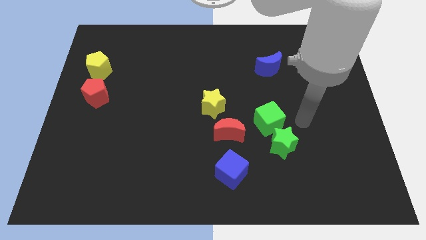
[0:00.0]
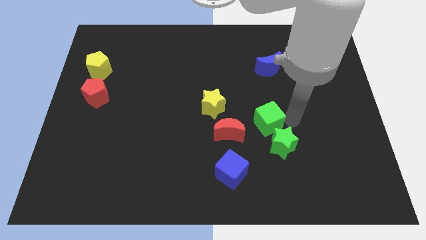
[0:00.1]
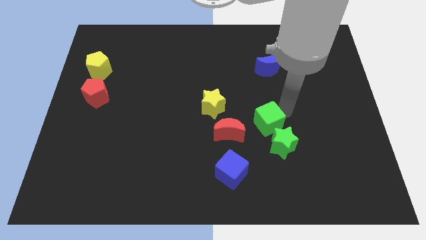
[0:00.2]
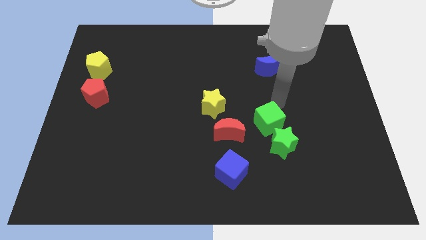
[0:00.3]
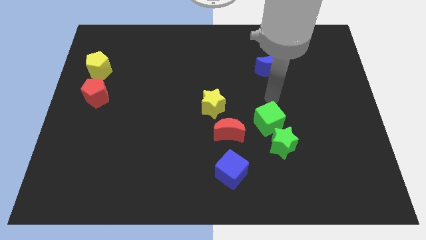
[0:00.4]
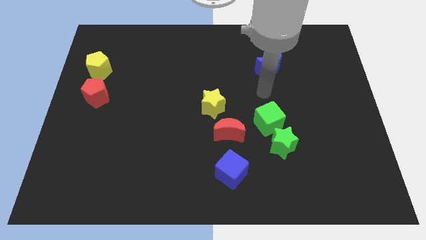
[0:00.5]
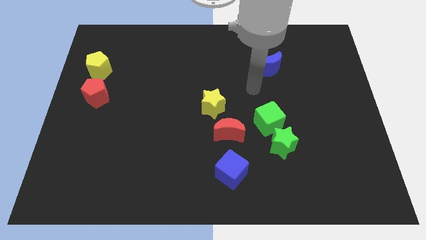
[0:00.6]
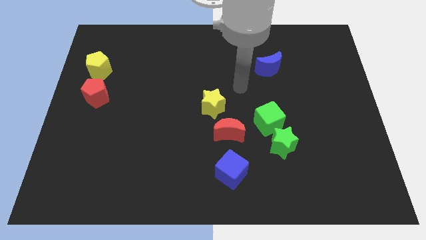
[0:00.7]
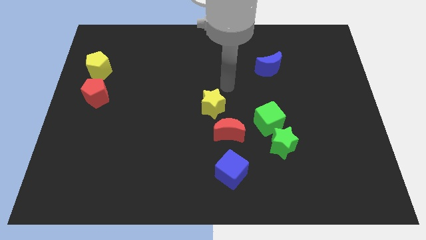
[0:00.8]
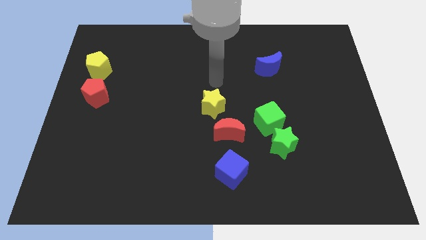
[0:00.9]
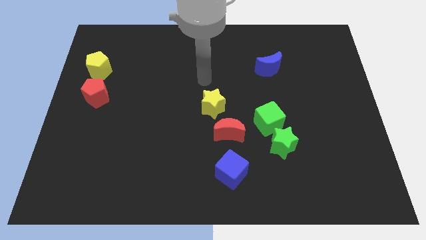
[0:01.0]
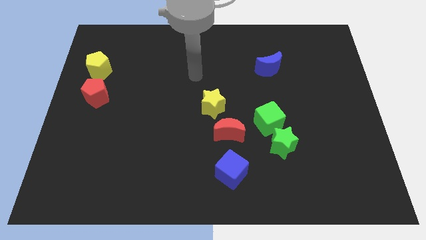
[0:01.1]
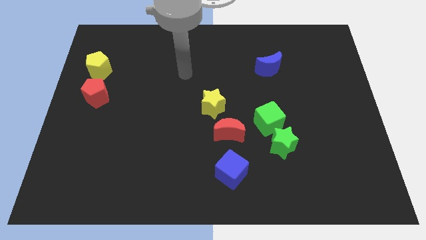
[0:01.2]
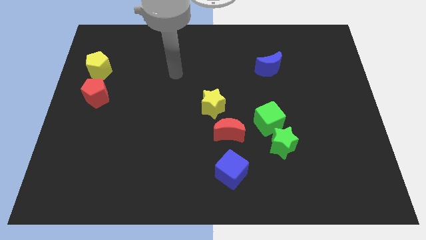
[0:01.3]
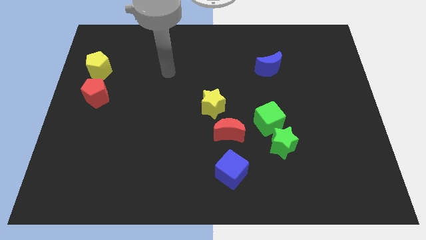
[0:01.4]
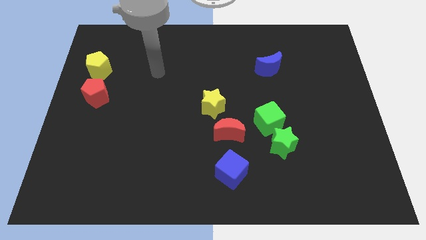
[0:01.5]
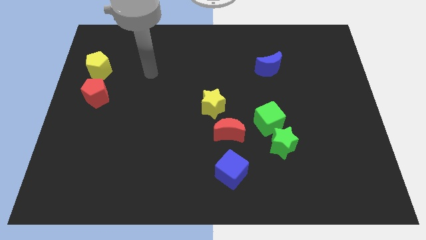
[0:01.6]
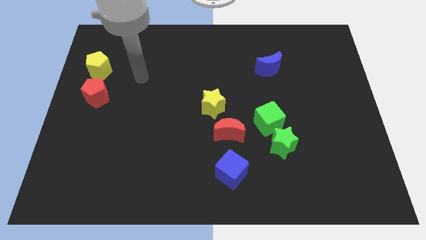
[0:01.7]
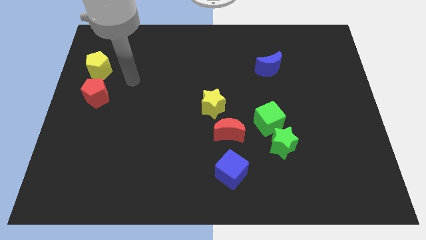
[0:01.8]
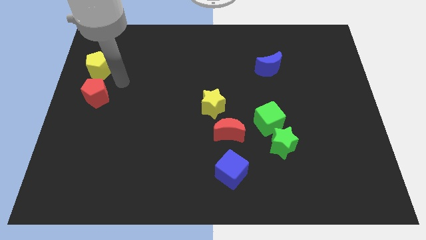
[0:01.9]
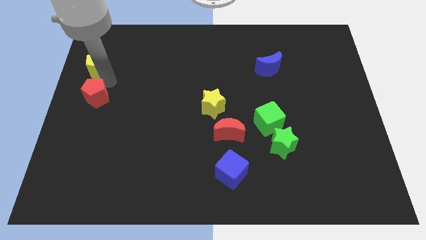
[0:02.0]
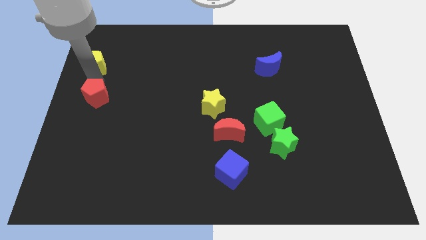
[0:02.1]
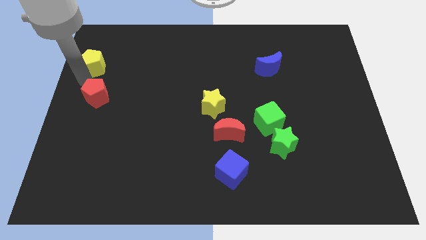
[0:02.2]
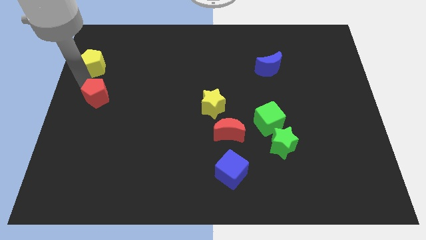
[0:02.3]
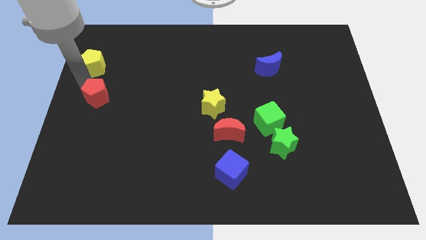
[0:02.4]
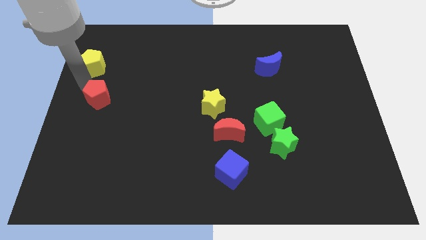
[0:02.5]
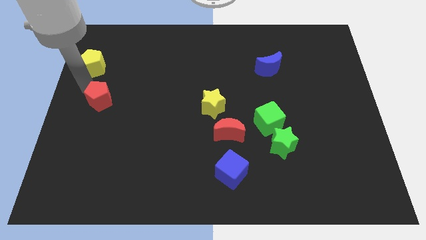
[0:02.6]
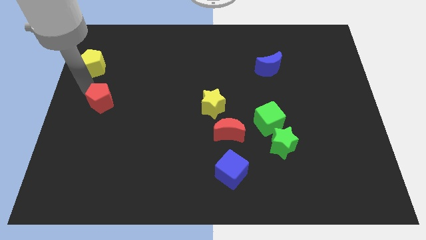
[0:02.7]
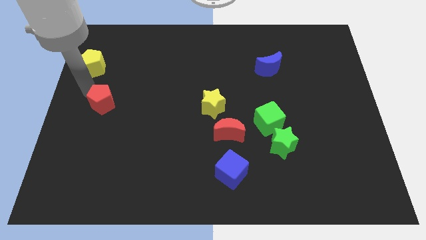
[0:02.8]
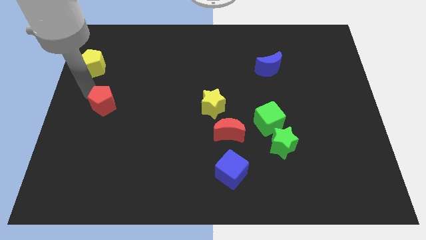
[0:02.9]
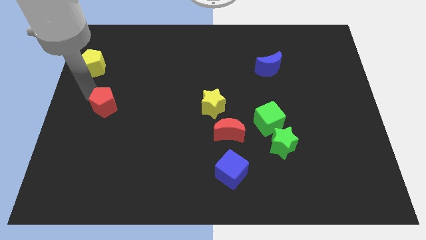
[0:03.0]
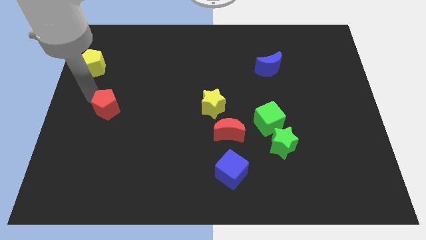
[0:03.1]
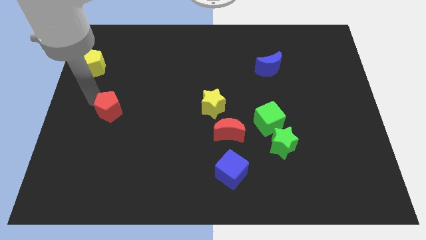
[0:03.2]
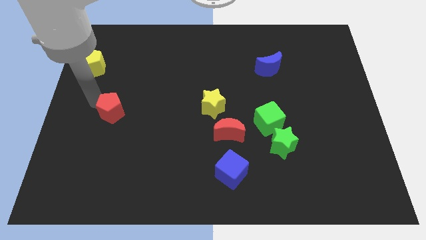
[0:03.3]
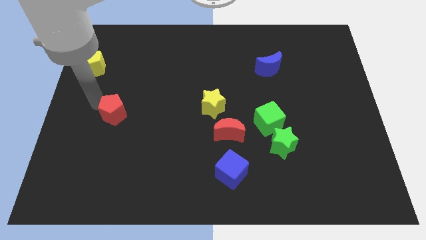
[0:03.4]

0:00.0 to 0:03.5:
move the red pentagon a bit diagonally down and right

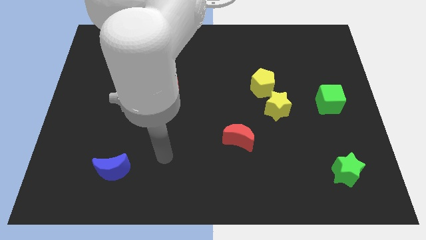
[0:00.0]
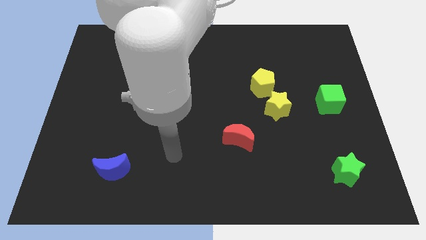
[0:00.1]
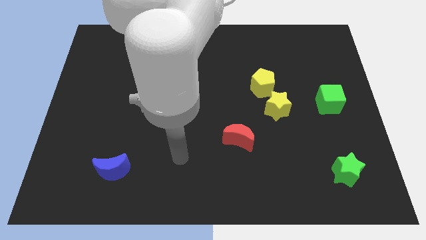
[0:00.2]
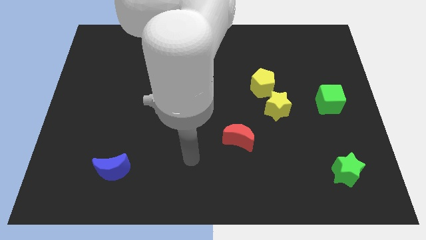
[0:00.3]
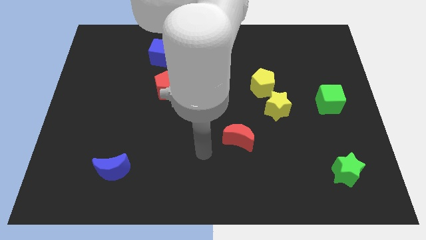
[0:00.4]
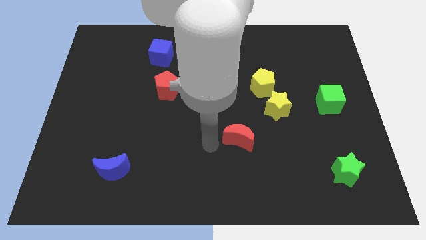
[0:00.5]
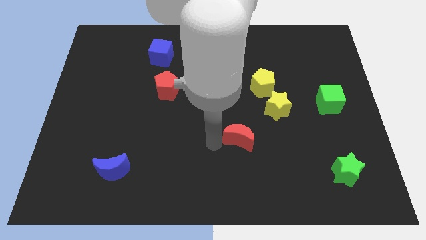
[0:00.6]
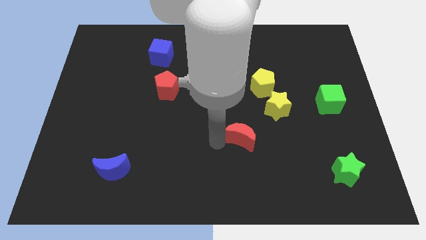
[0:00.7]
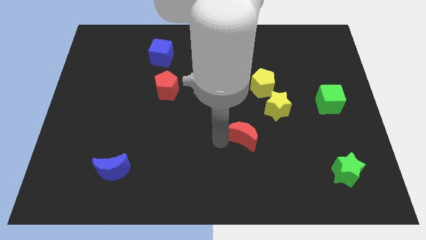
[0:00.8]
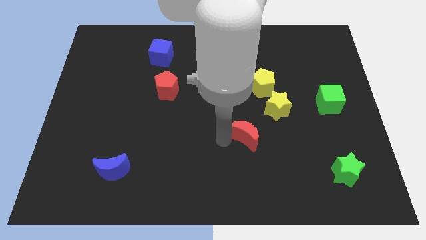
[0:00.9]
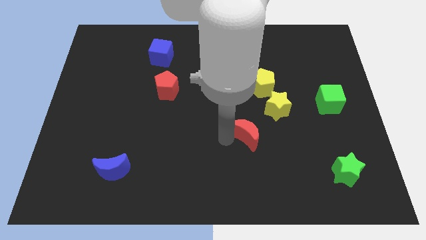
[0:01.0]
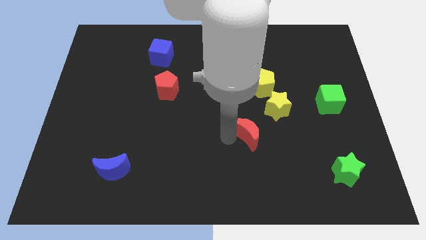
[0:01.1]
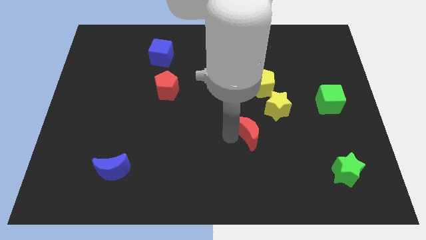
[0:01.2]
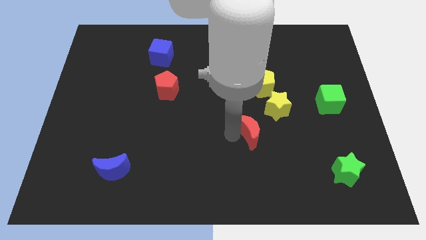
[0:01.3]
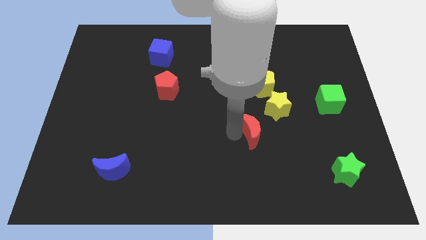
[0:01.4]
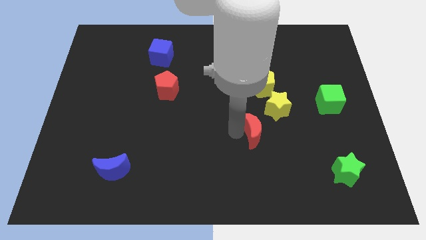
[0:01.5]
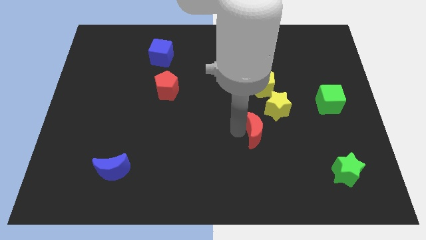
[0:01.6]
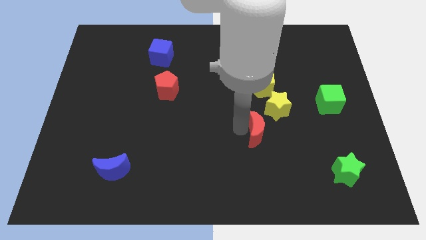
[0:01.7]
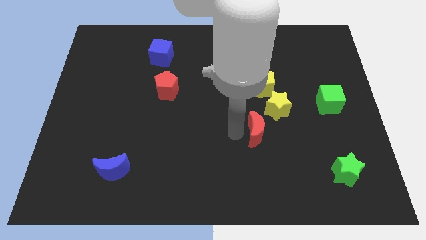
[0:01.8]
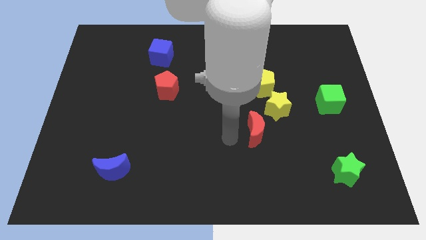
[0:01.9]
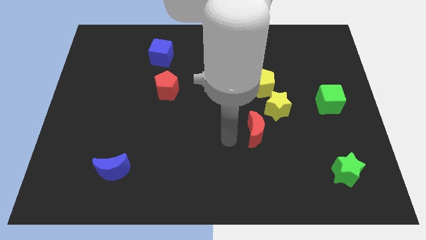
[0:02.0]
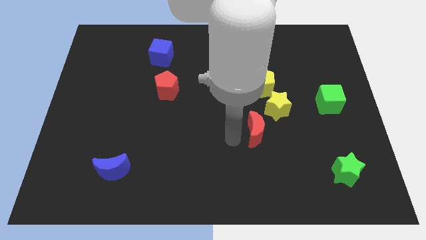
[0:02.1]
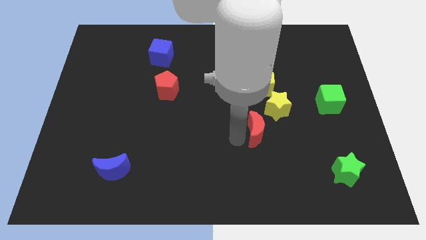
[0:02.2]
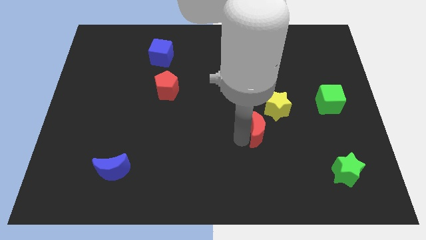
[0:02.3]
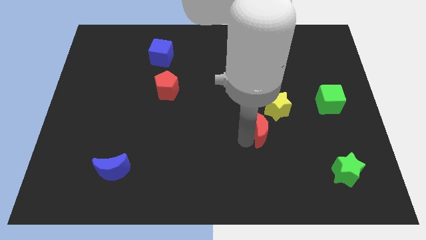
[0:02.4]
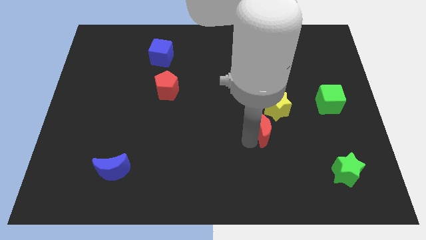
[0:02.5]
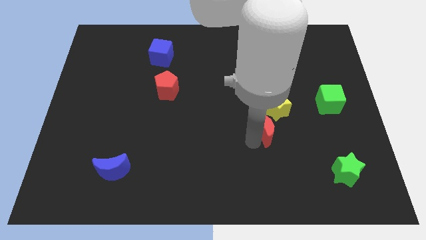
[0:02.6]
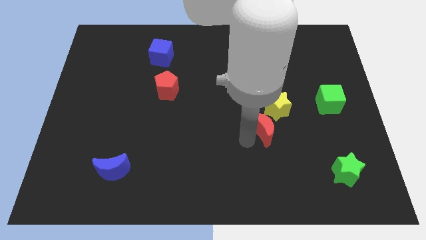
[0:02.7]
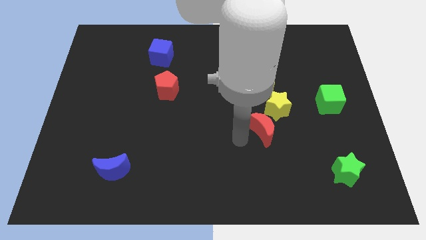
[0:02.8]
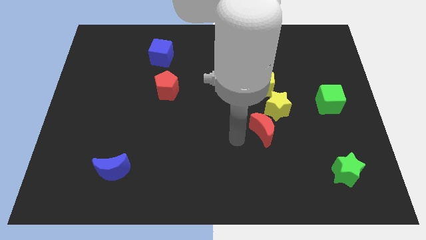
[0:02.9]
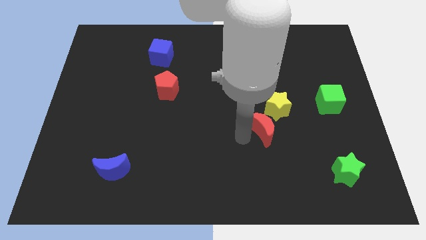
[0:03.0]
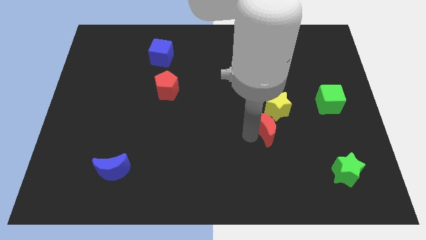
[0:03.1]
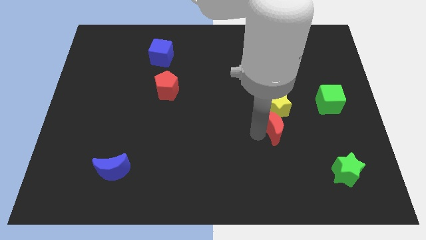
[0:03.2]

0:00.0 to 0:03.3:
push the red moon a little up and then right

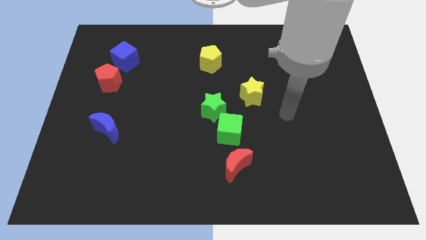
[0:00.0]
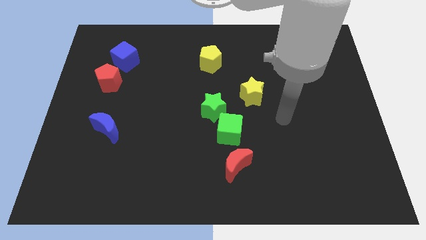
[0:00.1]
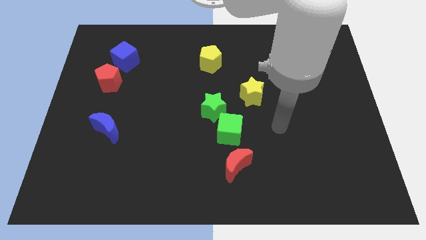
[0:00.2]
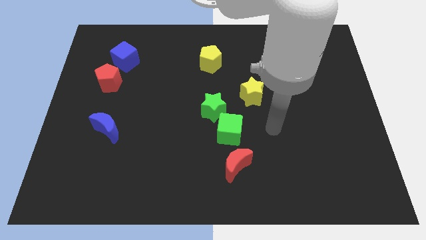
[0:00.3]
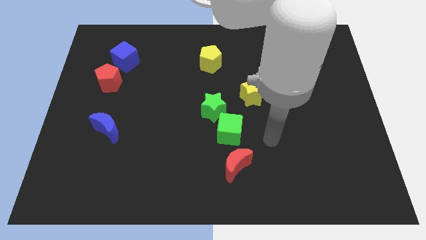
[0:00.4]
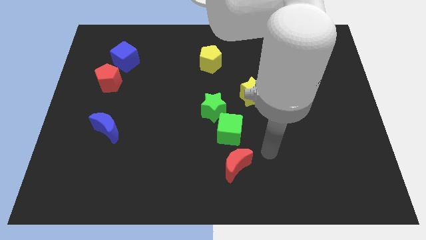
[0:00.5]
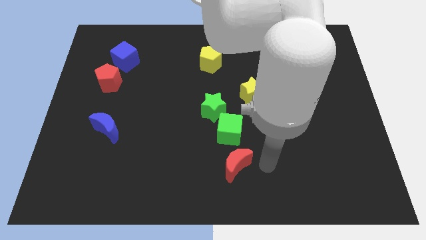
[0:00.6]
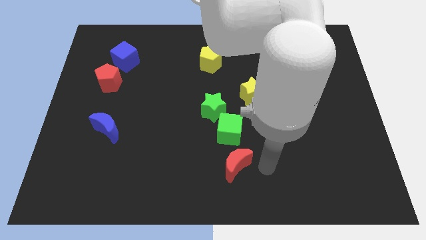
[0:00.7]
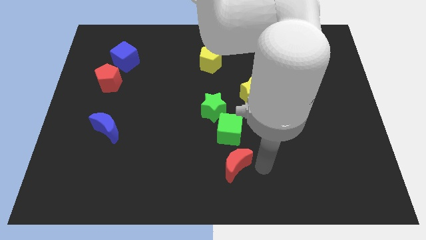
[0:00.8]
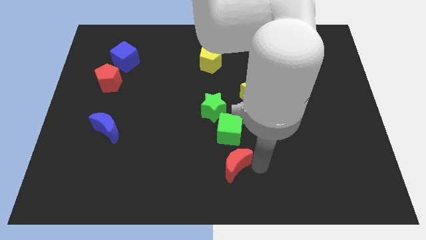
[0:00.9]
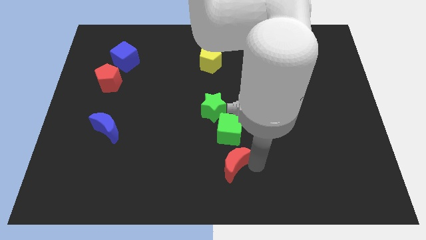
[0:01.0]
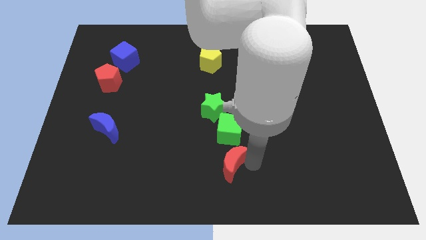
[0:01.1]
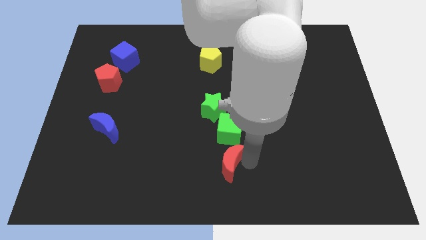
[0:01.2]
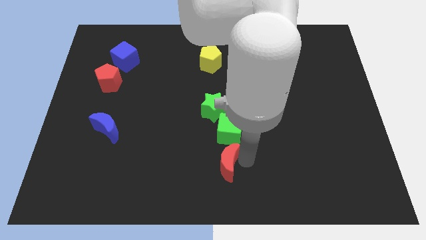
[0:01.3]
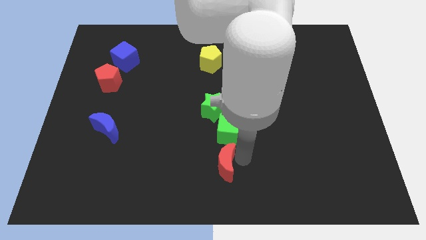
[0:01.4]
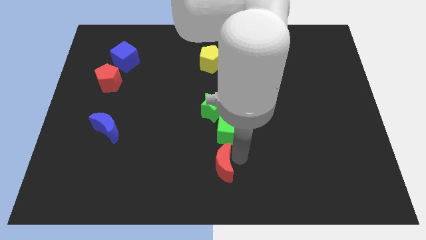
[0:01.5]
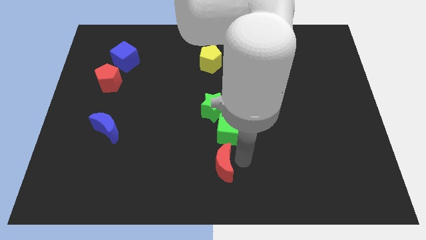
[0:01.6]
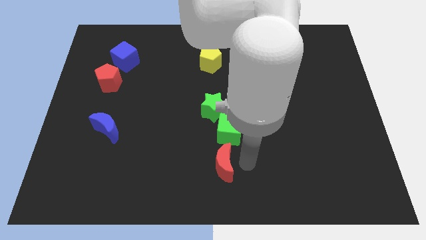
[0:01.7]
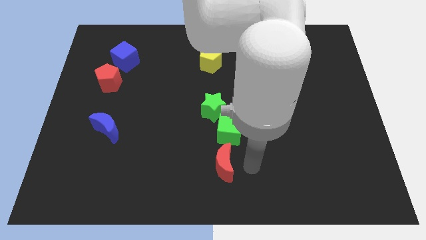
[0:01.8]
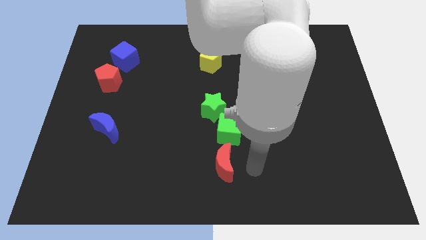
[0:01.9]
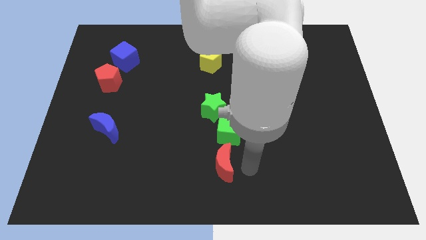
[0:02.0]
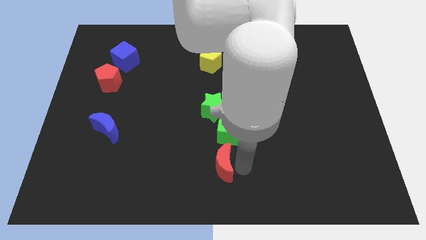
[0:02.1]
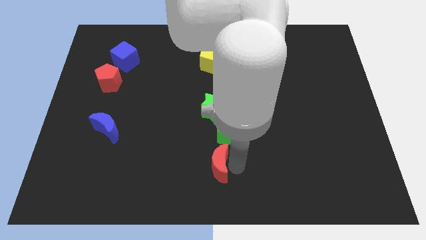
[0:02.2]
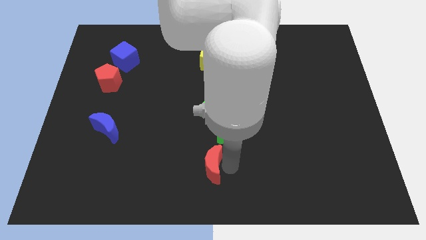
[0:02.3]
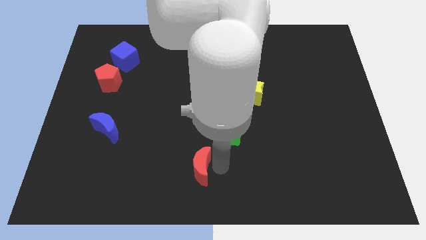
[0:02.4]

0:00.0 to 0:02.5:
slightly slide the red moon to the left
